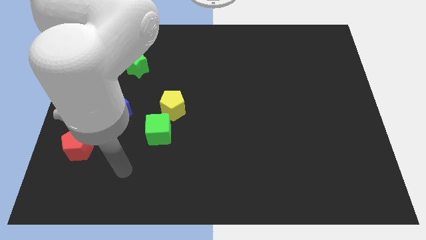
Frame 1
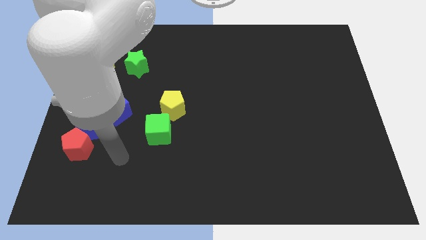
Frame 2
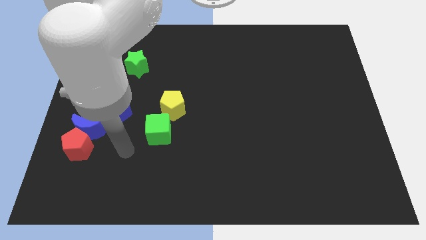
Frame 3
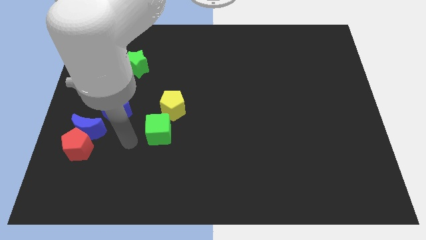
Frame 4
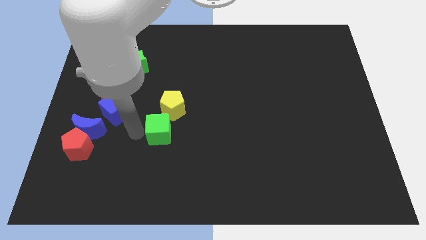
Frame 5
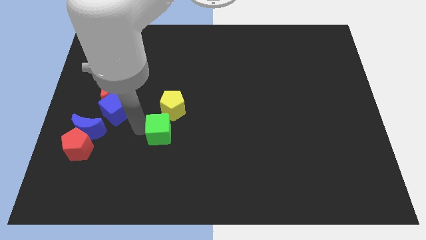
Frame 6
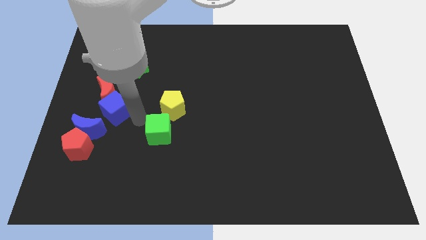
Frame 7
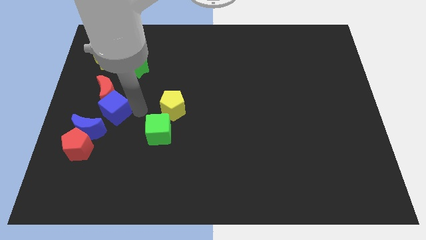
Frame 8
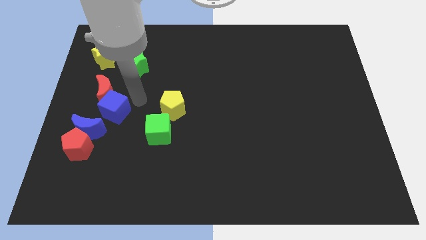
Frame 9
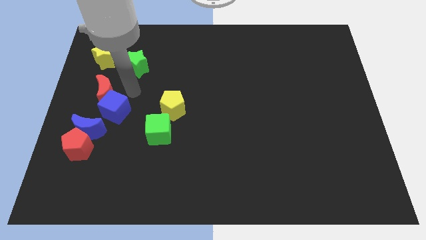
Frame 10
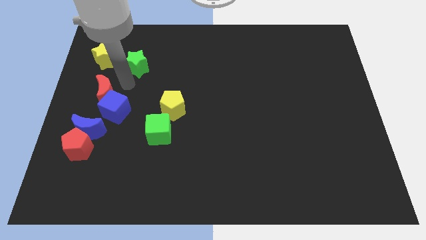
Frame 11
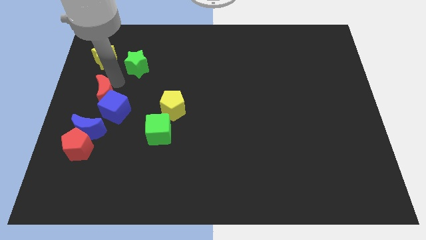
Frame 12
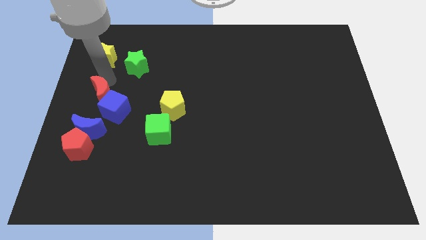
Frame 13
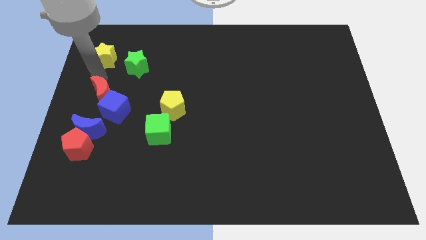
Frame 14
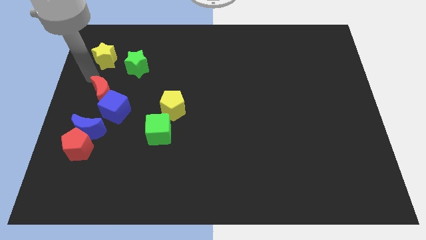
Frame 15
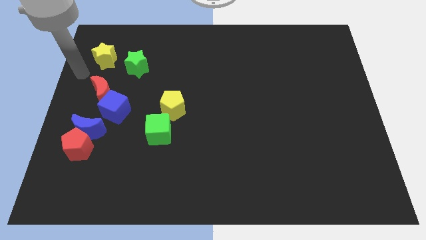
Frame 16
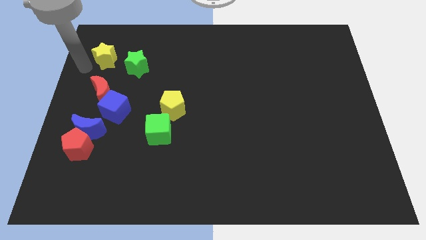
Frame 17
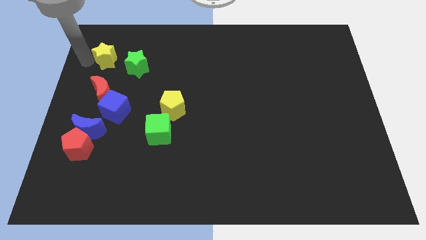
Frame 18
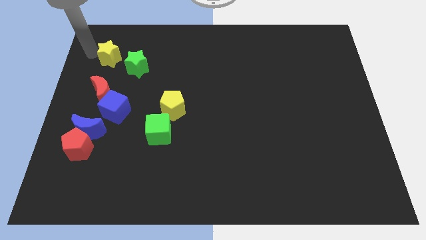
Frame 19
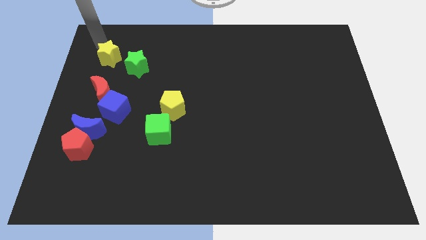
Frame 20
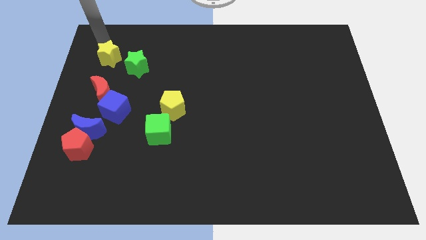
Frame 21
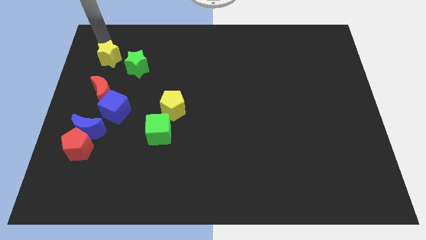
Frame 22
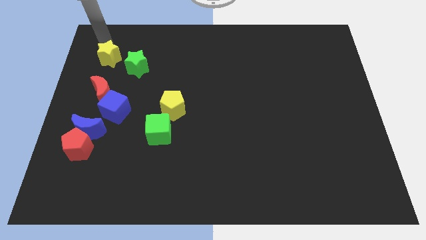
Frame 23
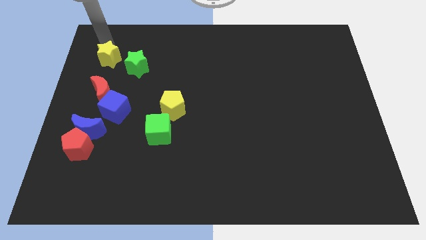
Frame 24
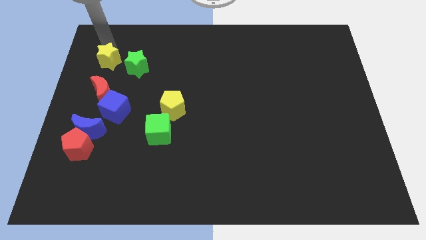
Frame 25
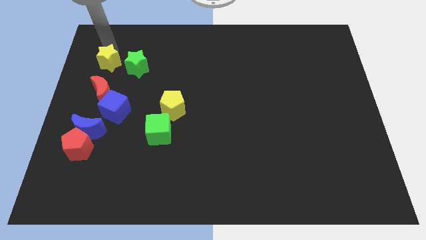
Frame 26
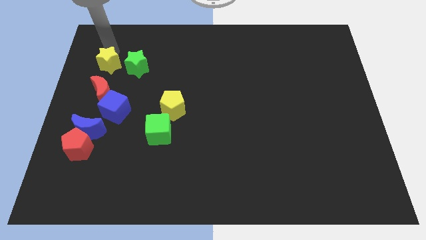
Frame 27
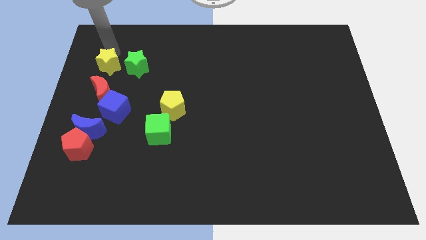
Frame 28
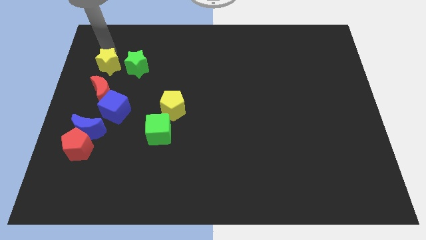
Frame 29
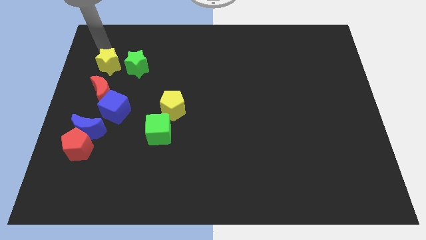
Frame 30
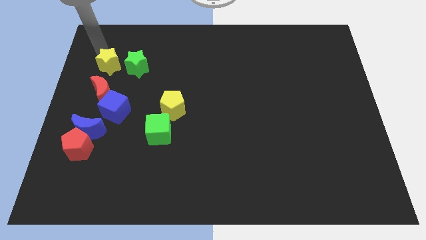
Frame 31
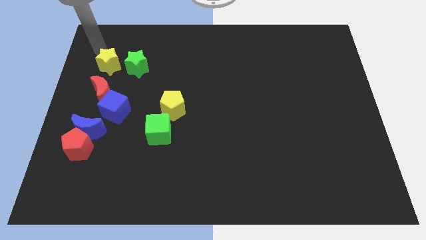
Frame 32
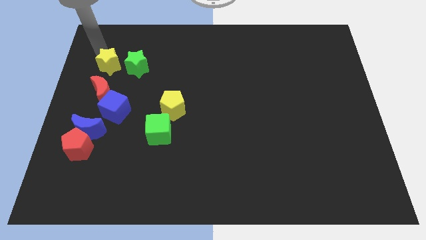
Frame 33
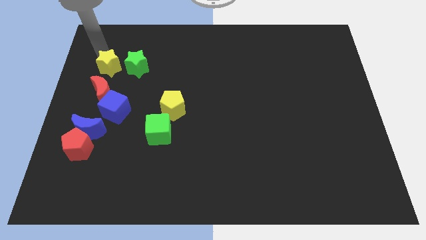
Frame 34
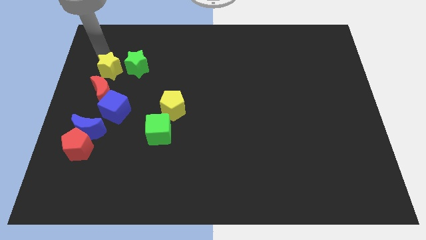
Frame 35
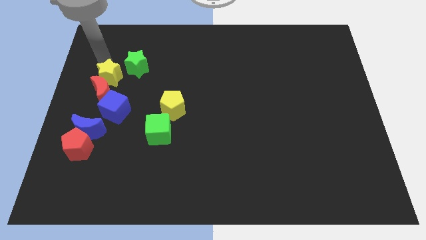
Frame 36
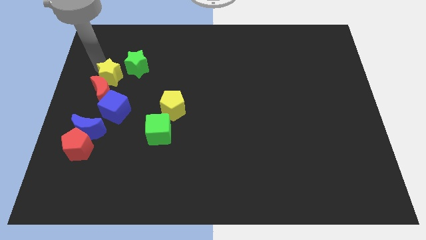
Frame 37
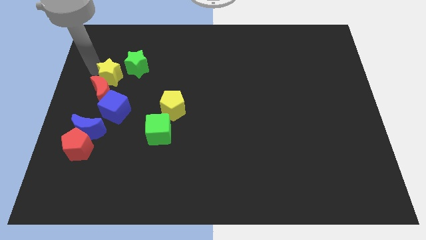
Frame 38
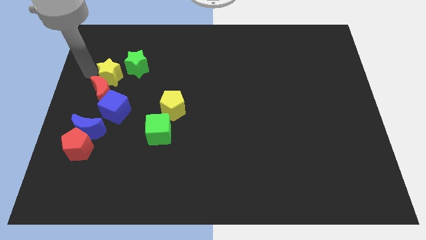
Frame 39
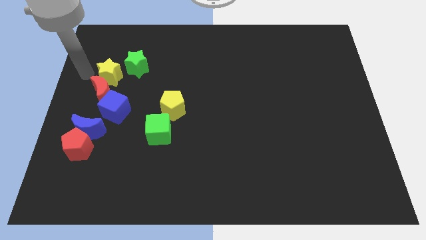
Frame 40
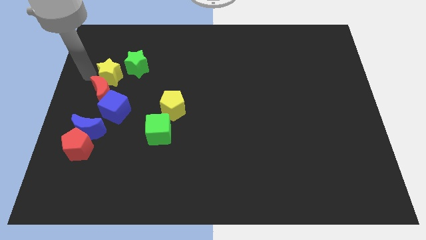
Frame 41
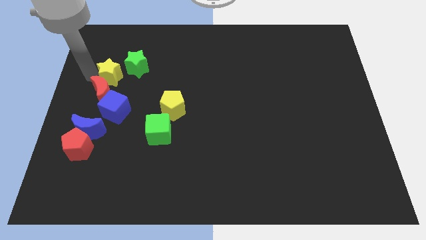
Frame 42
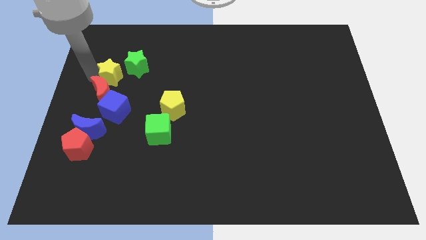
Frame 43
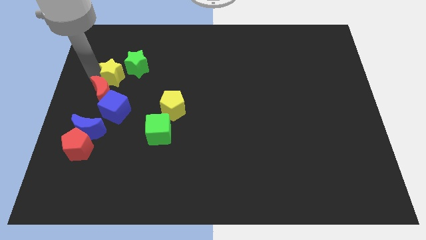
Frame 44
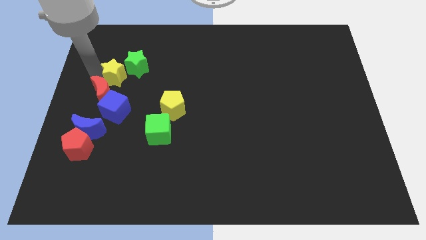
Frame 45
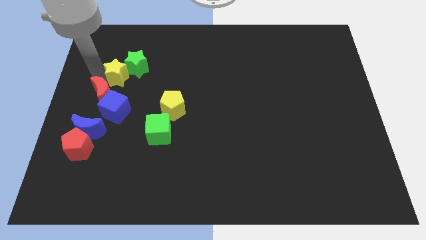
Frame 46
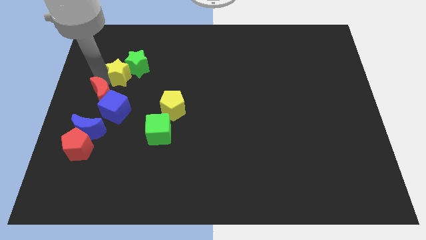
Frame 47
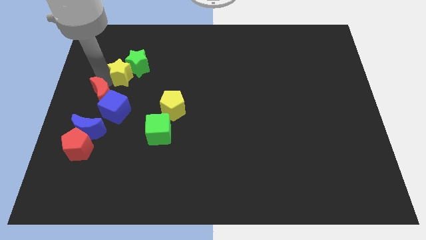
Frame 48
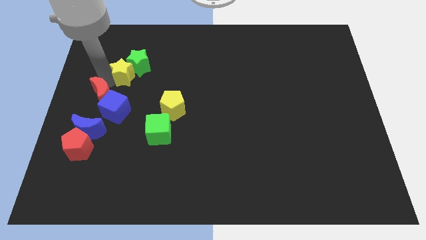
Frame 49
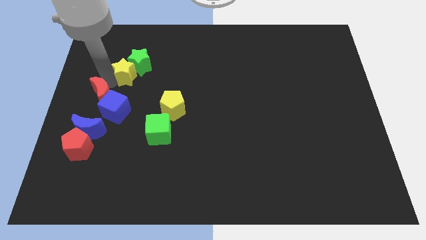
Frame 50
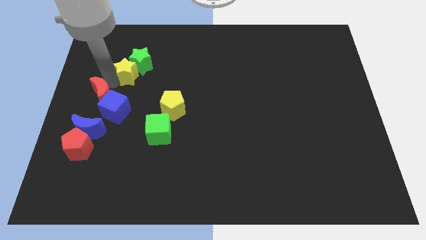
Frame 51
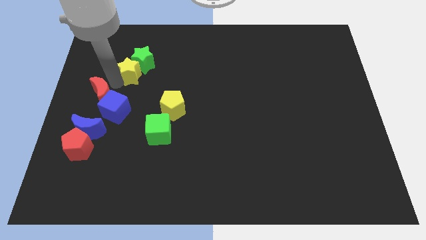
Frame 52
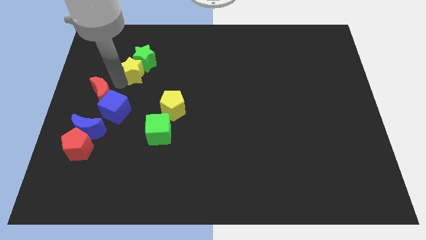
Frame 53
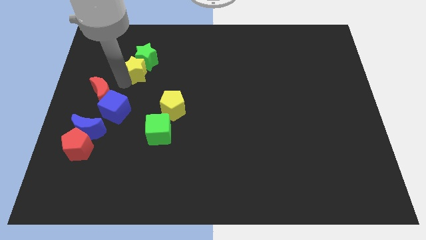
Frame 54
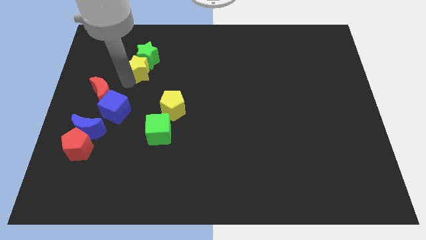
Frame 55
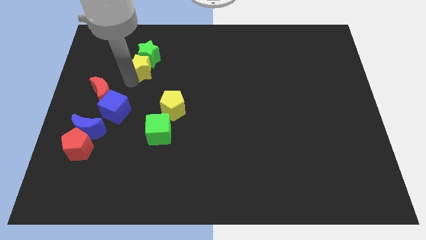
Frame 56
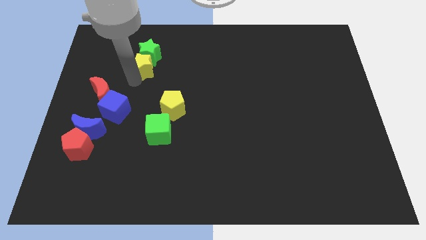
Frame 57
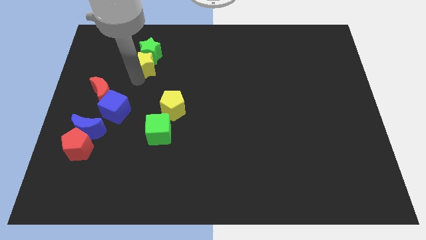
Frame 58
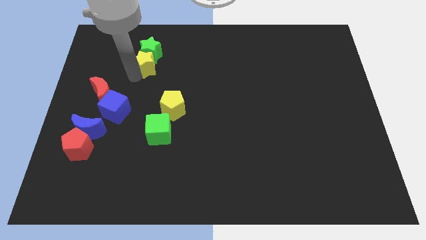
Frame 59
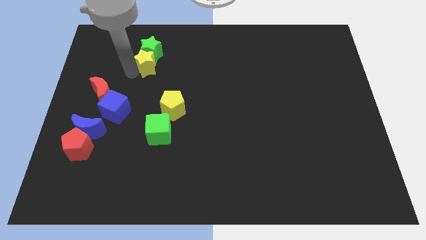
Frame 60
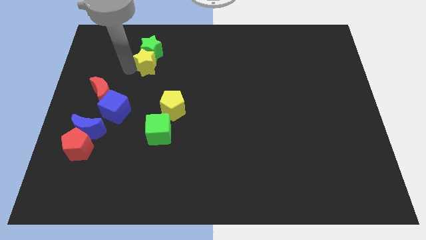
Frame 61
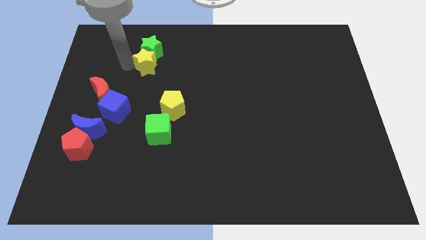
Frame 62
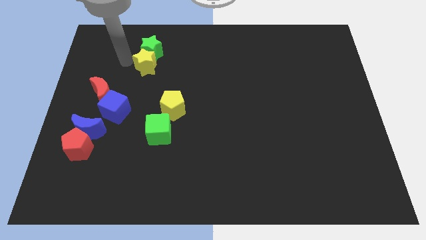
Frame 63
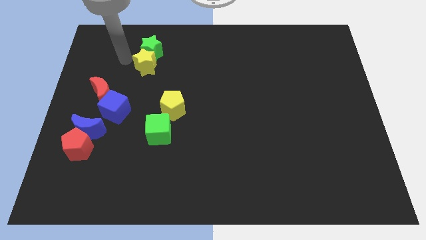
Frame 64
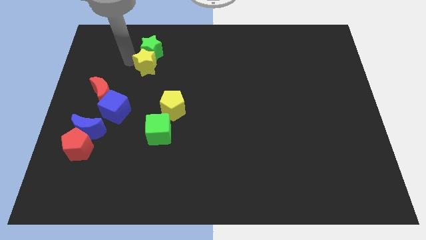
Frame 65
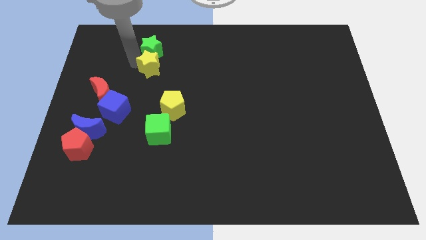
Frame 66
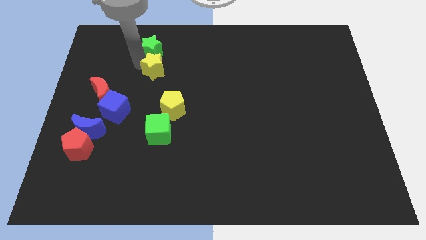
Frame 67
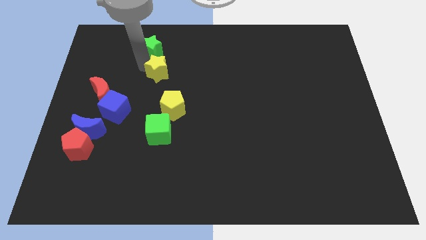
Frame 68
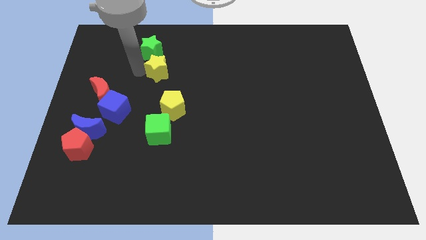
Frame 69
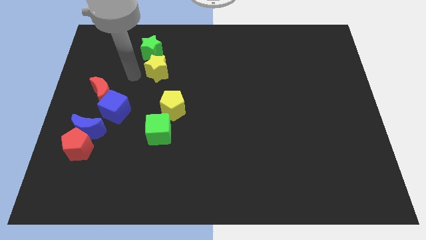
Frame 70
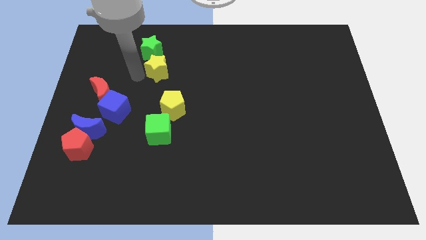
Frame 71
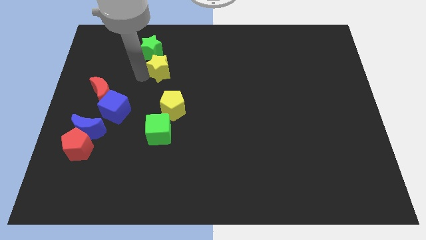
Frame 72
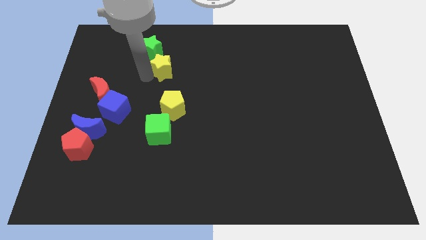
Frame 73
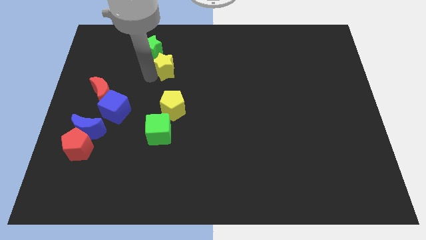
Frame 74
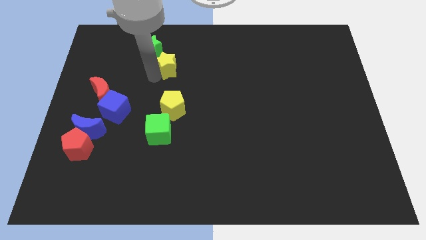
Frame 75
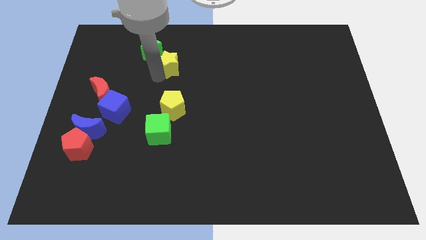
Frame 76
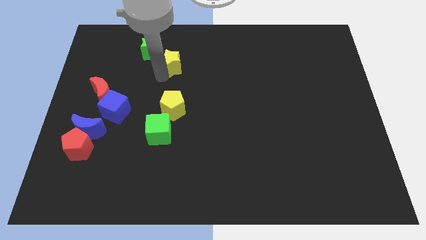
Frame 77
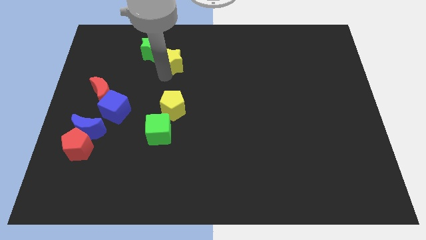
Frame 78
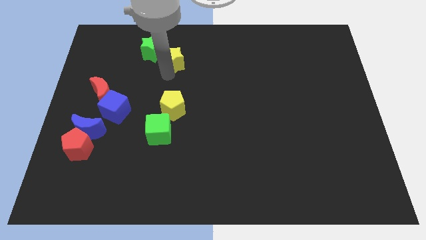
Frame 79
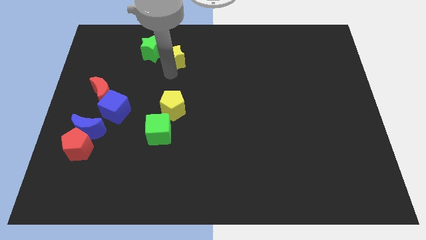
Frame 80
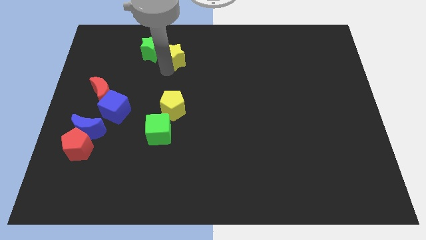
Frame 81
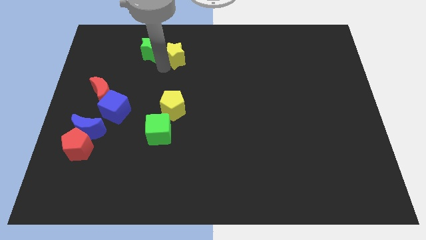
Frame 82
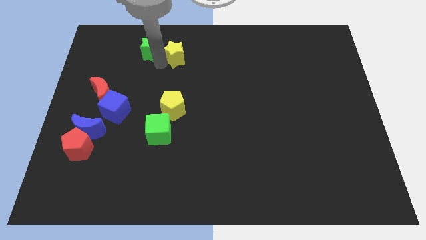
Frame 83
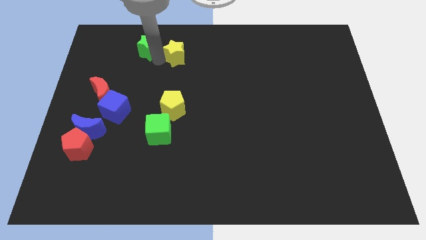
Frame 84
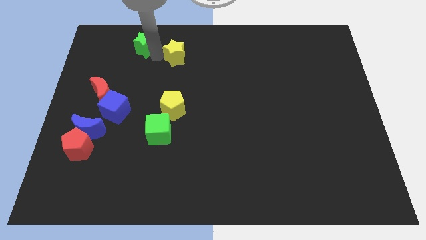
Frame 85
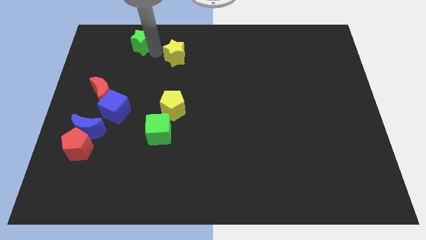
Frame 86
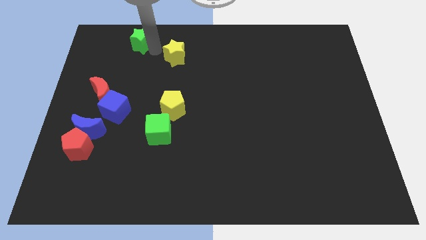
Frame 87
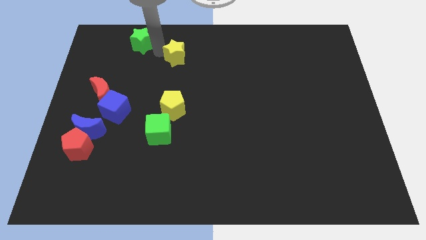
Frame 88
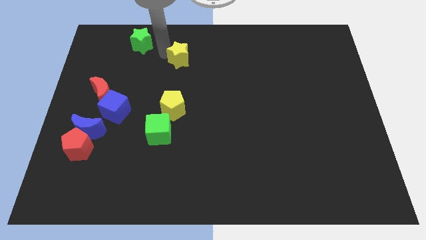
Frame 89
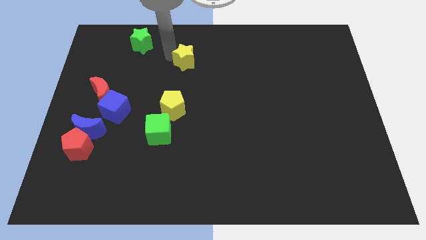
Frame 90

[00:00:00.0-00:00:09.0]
push the yellow star right
